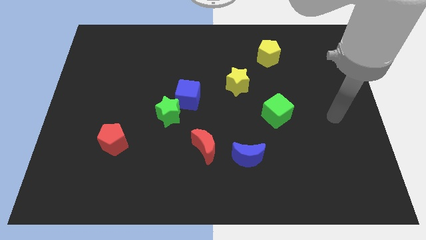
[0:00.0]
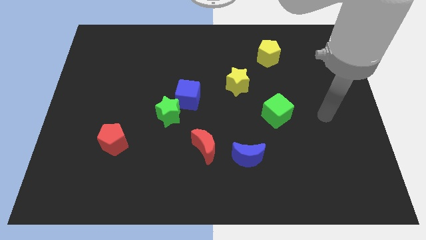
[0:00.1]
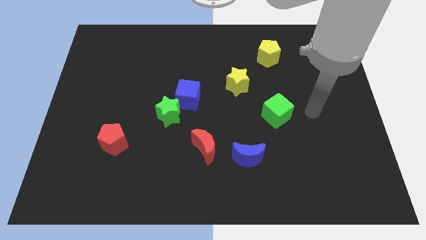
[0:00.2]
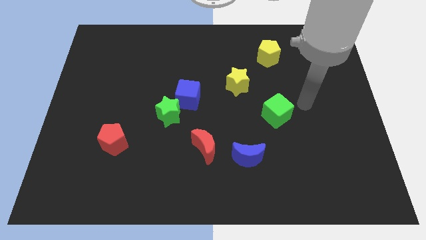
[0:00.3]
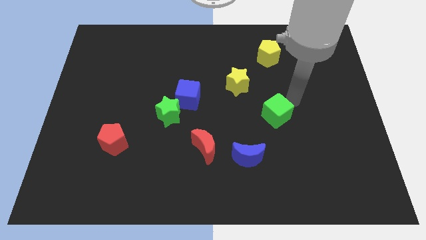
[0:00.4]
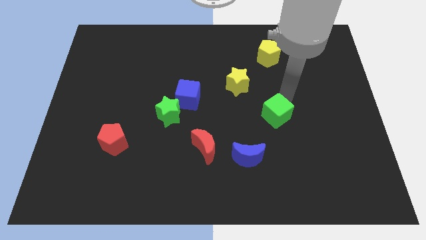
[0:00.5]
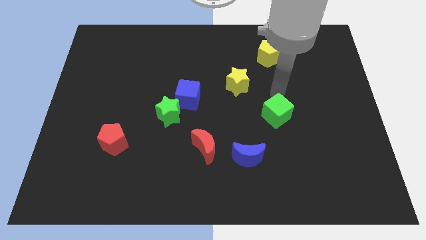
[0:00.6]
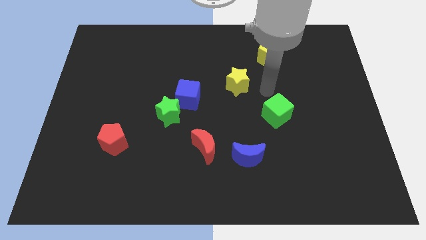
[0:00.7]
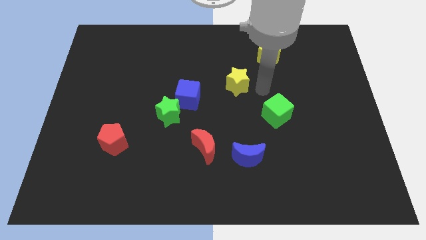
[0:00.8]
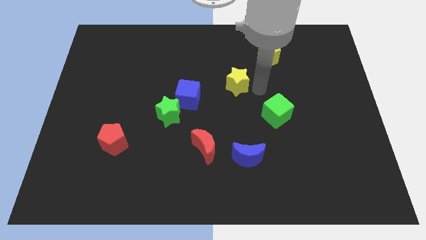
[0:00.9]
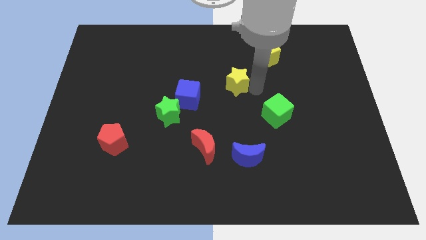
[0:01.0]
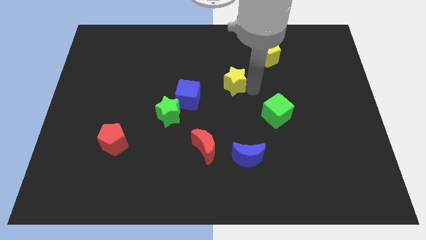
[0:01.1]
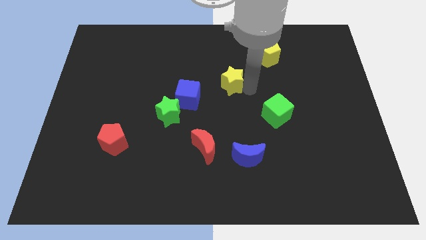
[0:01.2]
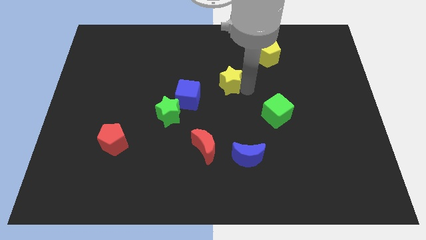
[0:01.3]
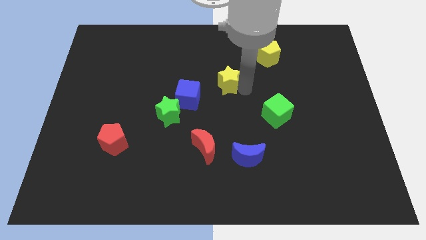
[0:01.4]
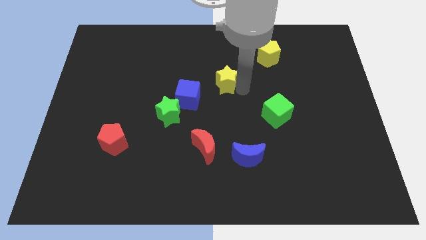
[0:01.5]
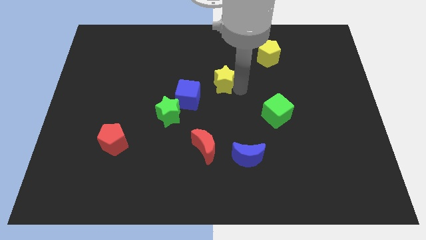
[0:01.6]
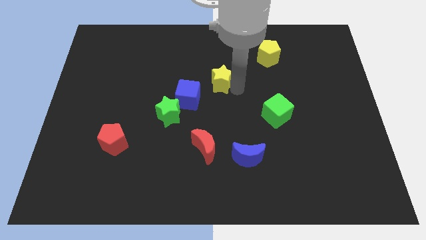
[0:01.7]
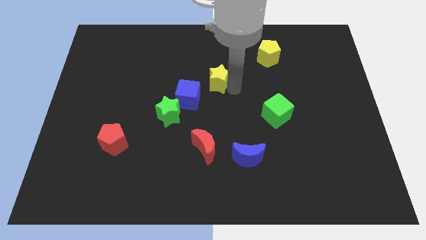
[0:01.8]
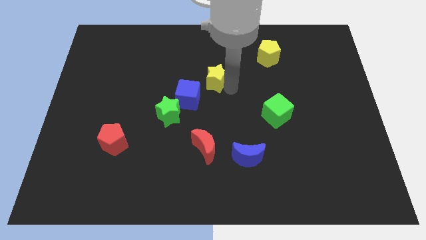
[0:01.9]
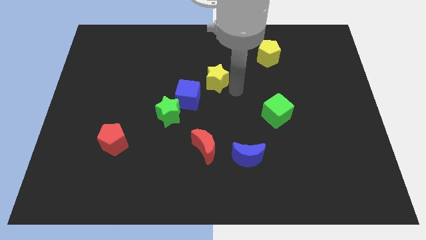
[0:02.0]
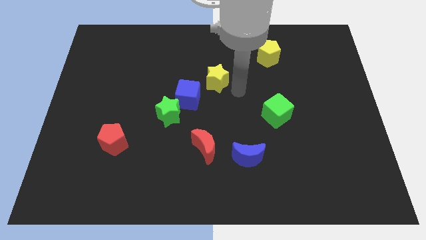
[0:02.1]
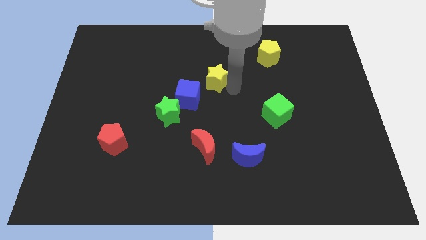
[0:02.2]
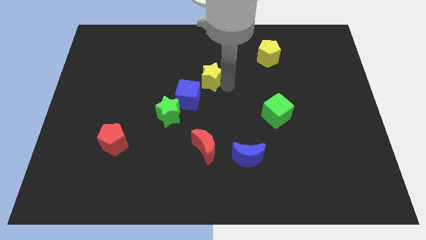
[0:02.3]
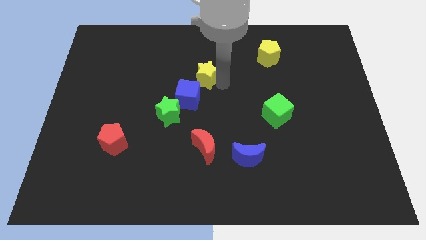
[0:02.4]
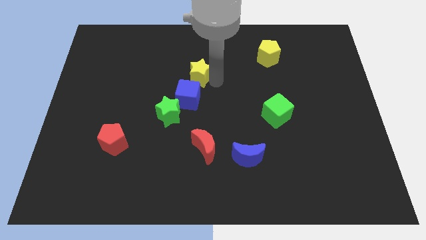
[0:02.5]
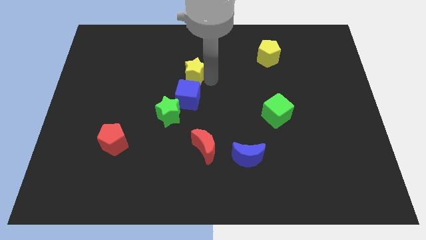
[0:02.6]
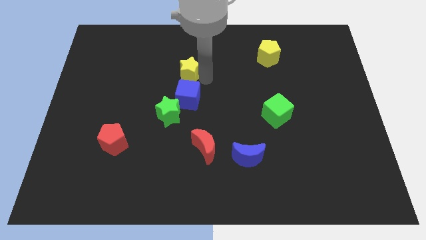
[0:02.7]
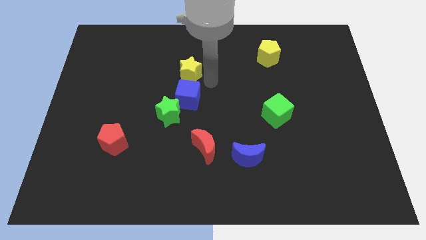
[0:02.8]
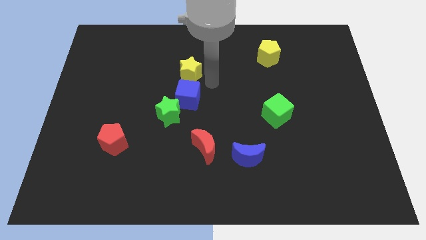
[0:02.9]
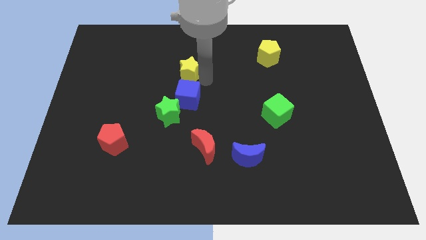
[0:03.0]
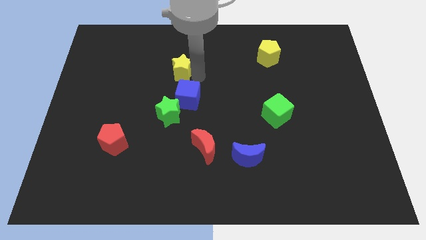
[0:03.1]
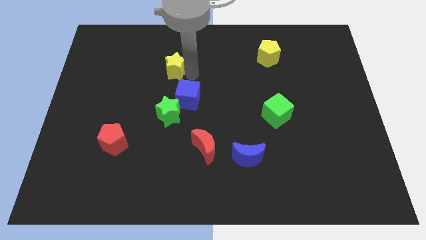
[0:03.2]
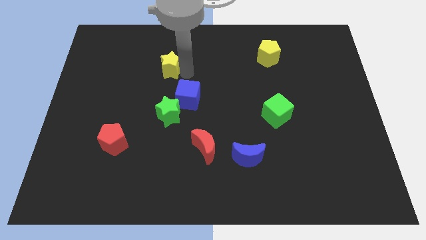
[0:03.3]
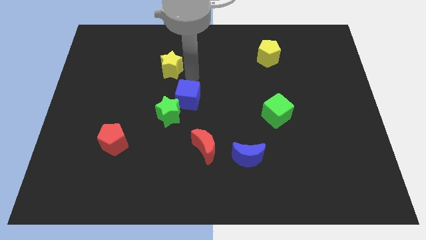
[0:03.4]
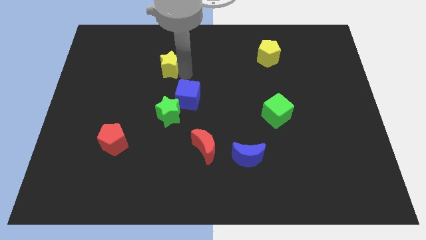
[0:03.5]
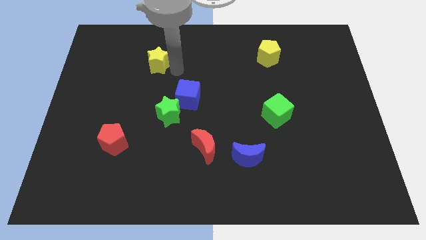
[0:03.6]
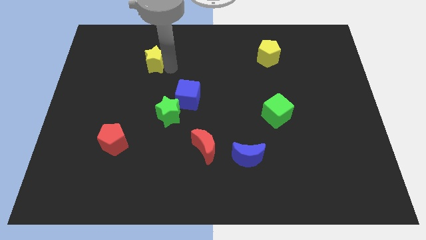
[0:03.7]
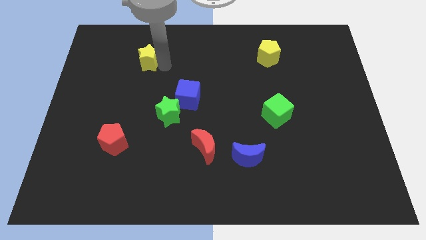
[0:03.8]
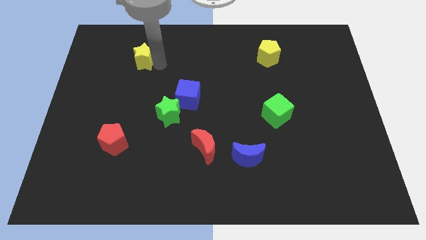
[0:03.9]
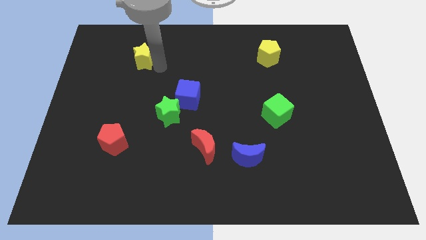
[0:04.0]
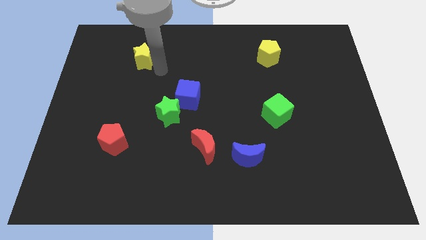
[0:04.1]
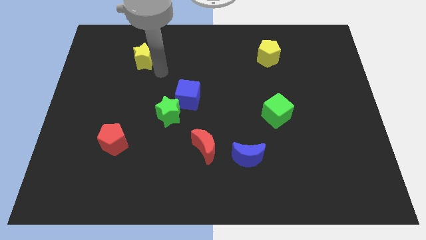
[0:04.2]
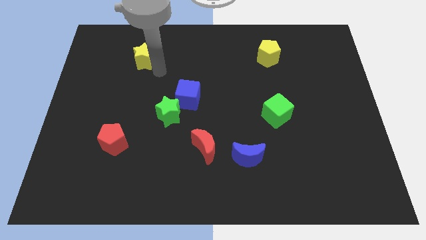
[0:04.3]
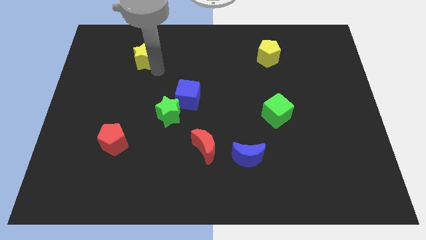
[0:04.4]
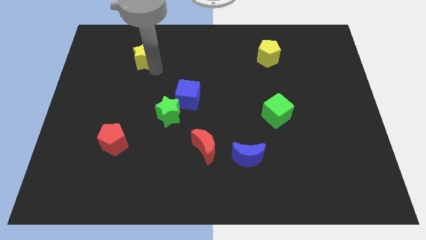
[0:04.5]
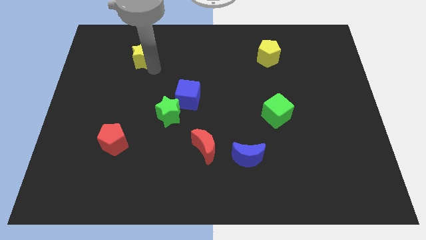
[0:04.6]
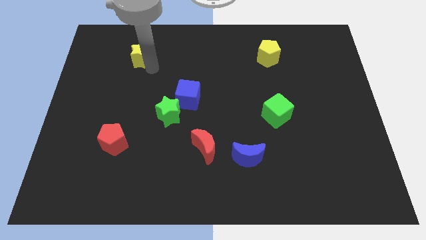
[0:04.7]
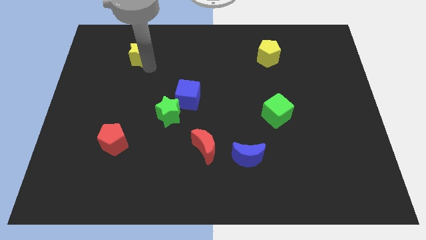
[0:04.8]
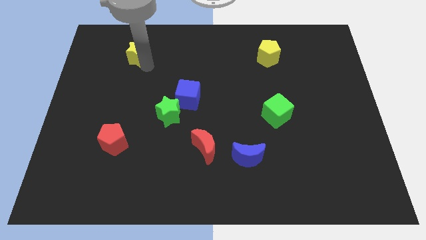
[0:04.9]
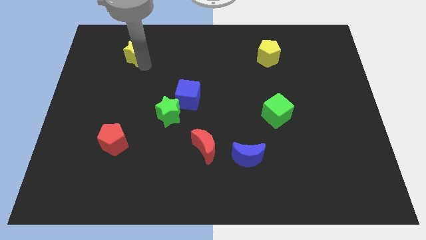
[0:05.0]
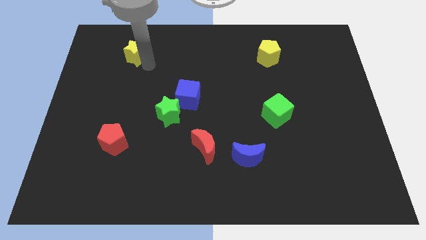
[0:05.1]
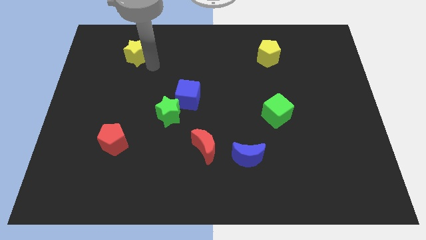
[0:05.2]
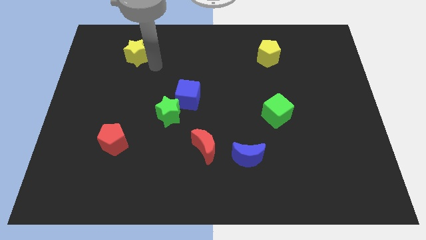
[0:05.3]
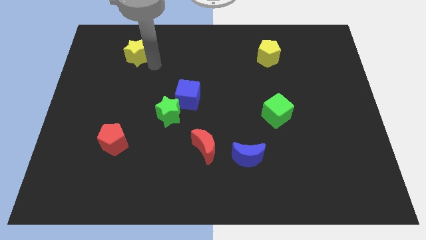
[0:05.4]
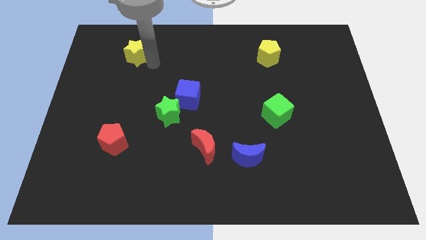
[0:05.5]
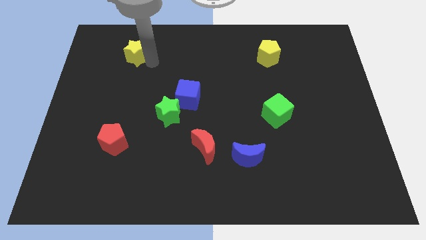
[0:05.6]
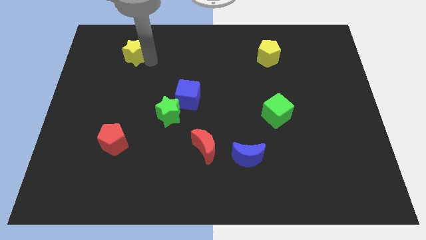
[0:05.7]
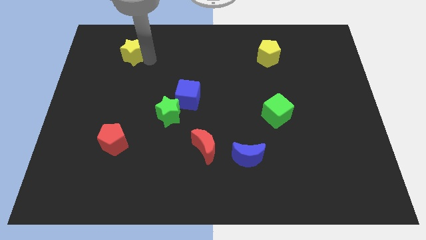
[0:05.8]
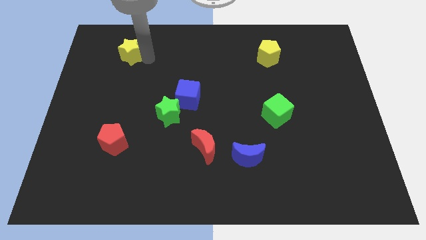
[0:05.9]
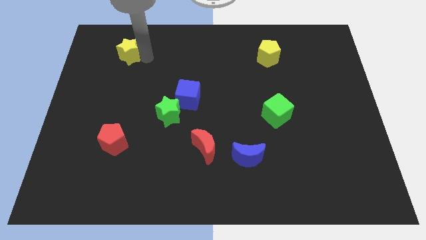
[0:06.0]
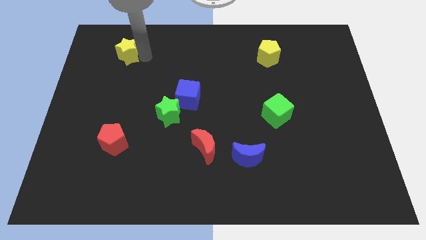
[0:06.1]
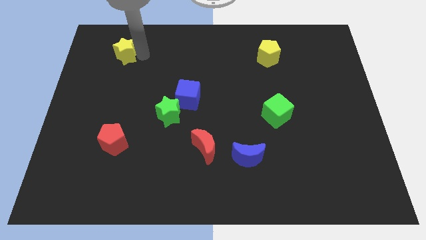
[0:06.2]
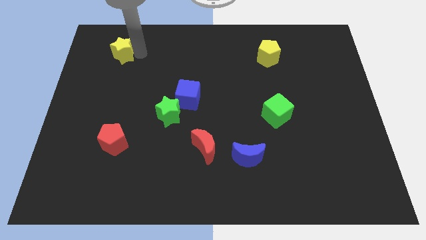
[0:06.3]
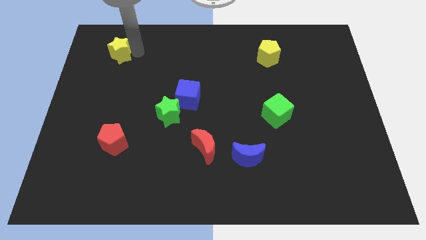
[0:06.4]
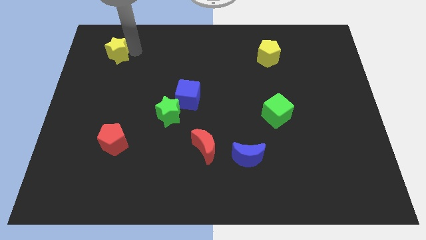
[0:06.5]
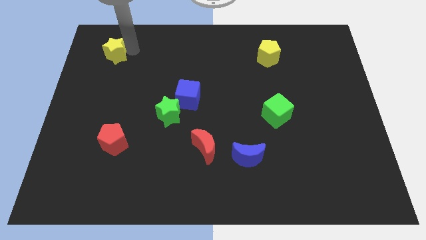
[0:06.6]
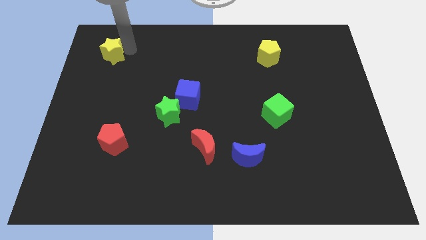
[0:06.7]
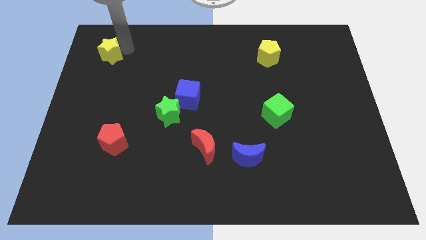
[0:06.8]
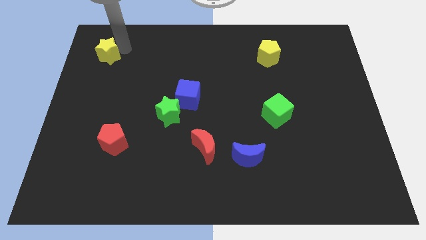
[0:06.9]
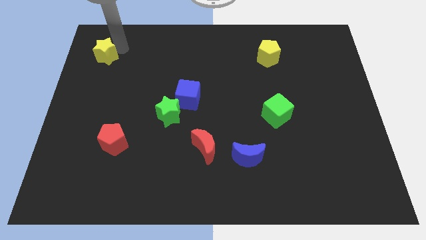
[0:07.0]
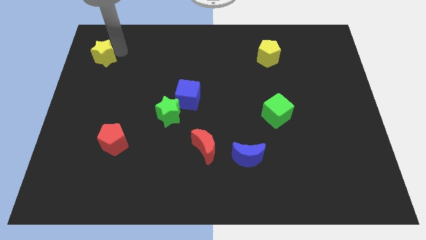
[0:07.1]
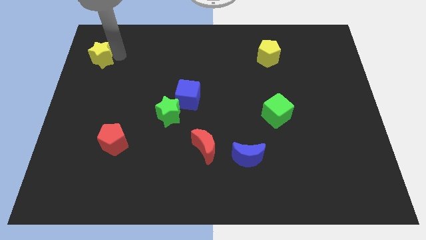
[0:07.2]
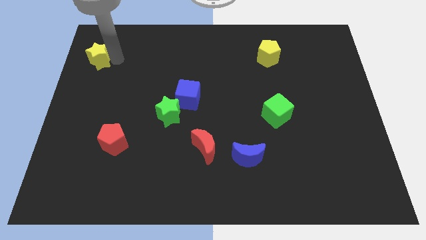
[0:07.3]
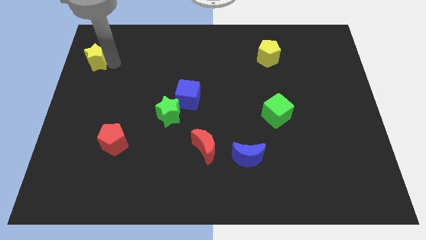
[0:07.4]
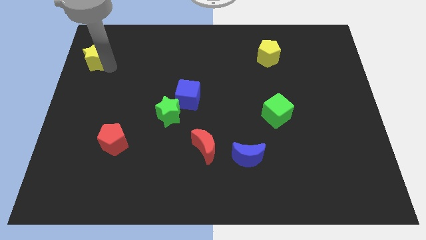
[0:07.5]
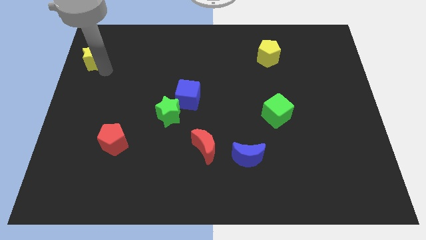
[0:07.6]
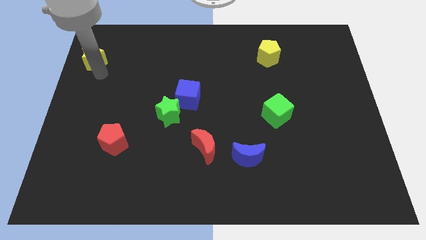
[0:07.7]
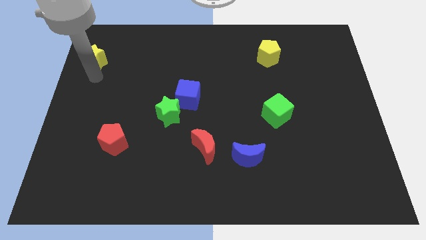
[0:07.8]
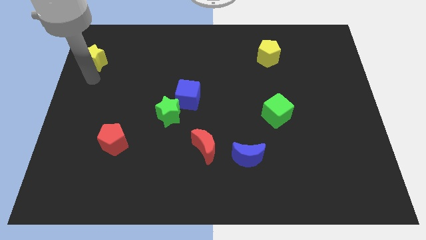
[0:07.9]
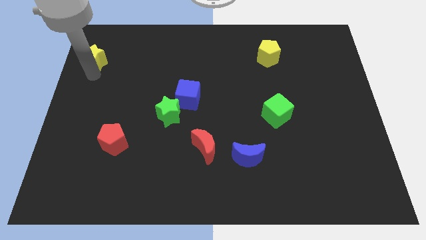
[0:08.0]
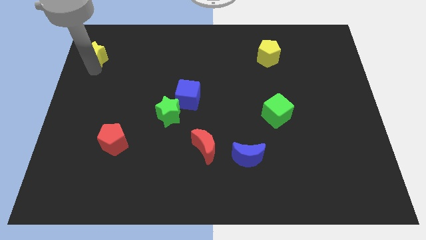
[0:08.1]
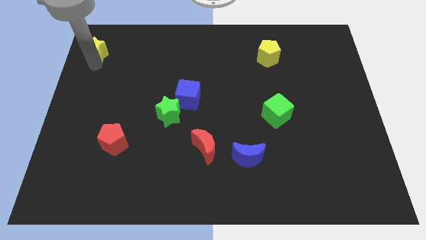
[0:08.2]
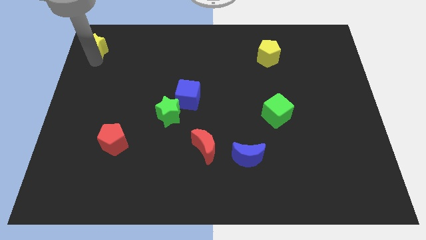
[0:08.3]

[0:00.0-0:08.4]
put the yellow star to the upper left corner
